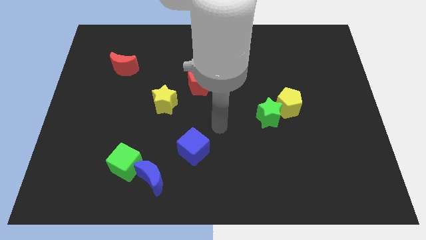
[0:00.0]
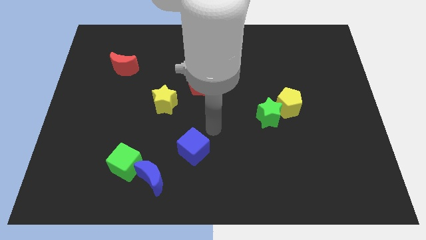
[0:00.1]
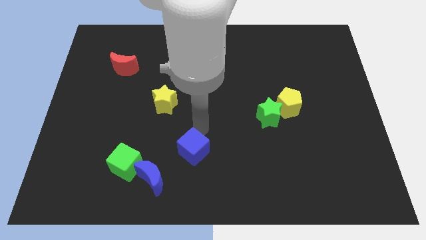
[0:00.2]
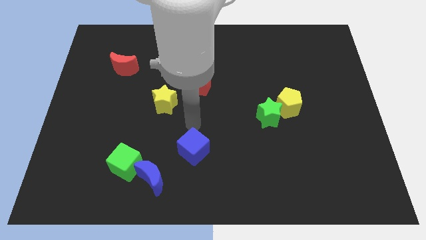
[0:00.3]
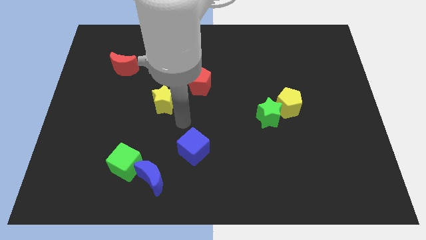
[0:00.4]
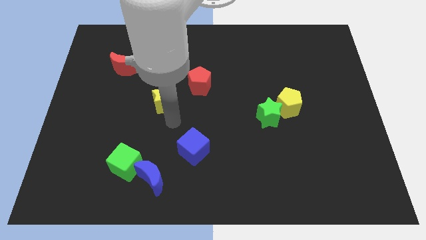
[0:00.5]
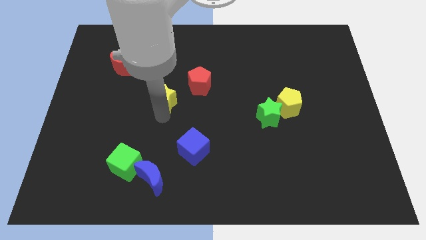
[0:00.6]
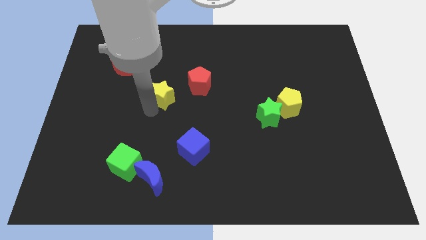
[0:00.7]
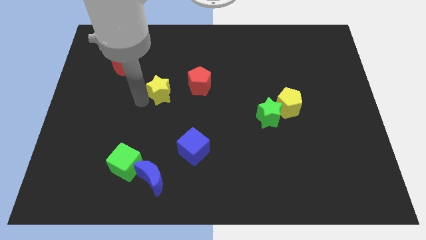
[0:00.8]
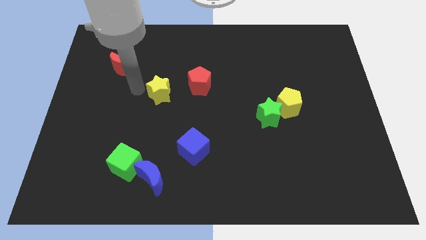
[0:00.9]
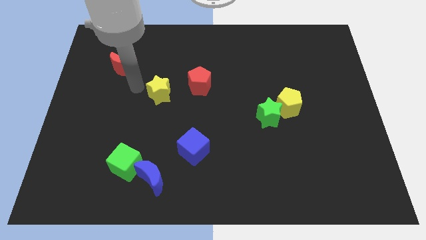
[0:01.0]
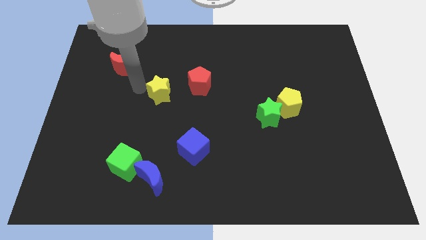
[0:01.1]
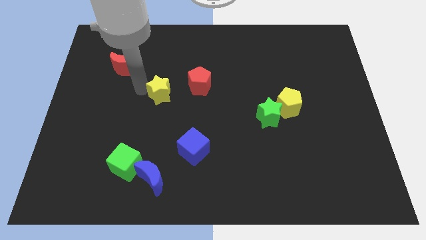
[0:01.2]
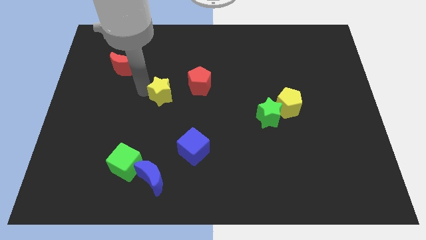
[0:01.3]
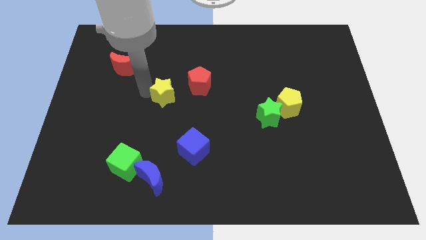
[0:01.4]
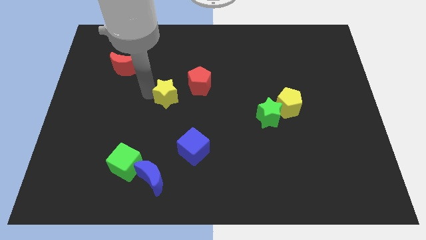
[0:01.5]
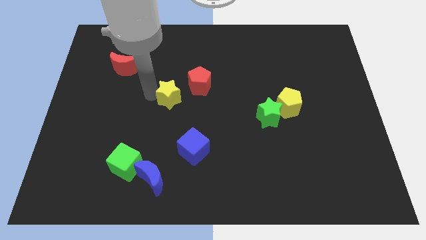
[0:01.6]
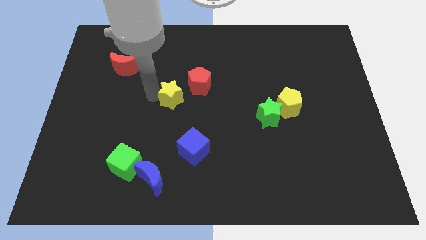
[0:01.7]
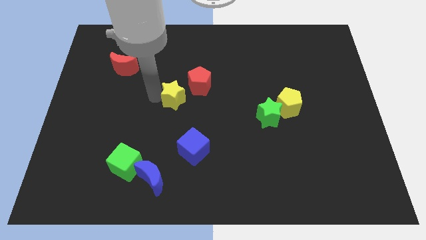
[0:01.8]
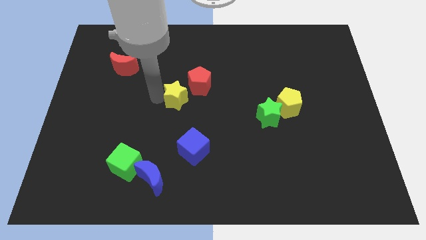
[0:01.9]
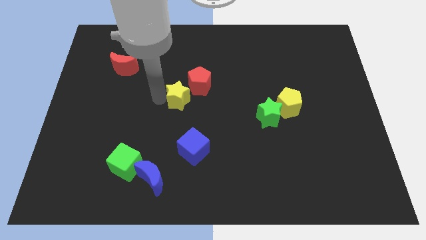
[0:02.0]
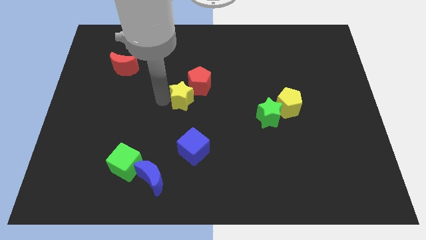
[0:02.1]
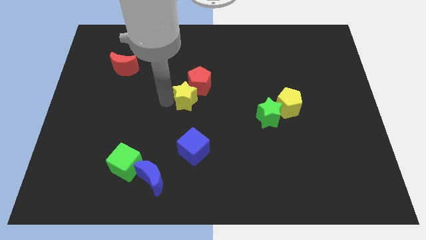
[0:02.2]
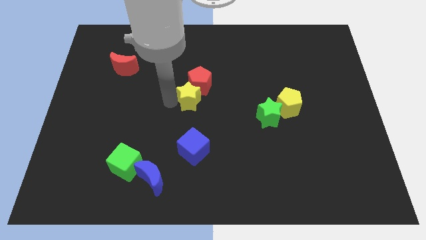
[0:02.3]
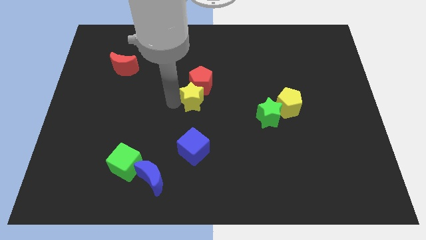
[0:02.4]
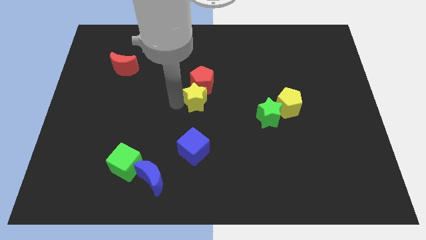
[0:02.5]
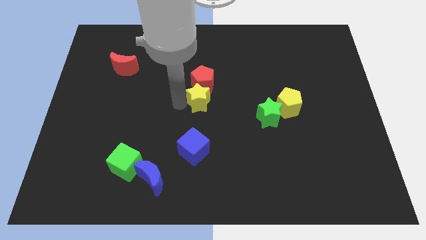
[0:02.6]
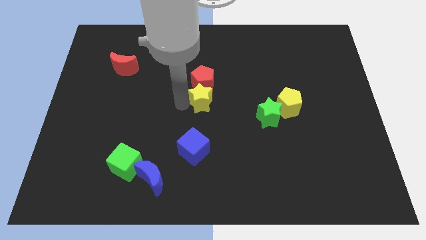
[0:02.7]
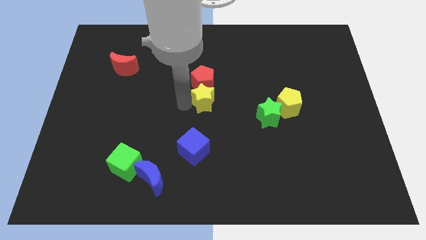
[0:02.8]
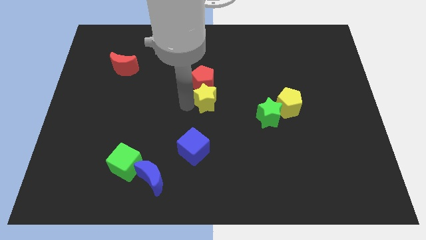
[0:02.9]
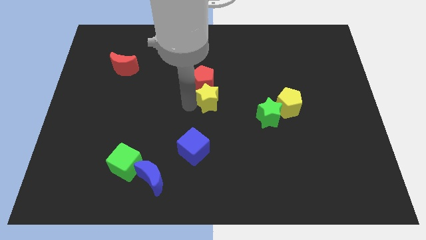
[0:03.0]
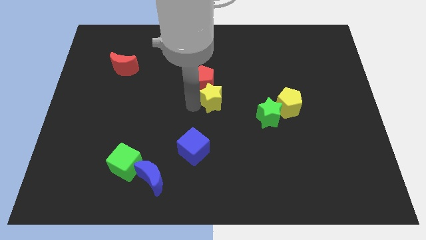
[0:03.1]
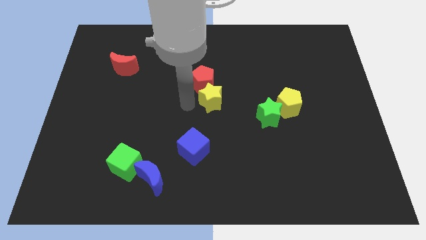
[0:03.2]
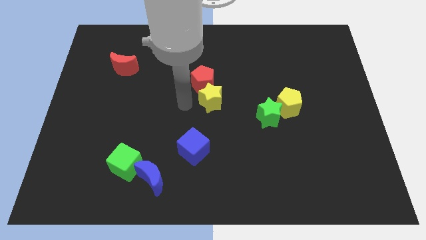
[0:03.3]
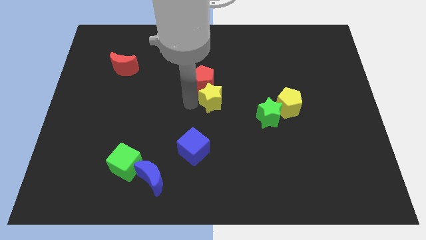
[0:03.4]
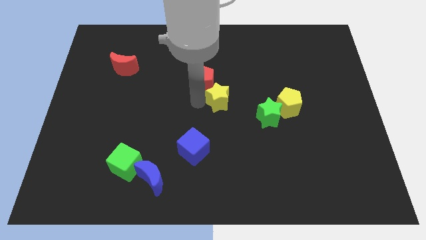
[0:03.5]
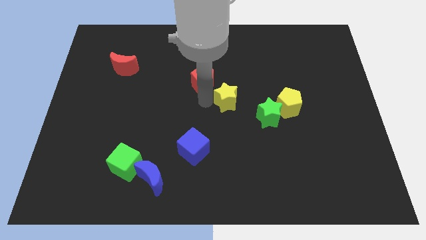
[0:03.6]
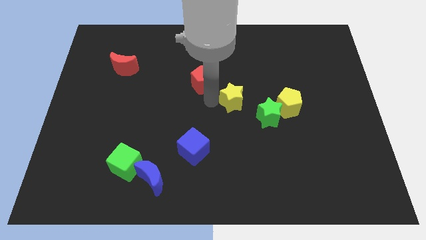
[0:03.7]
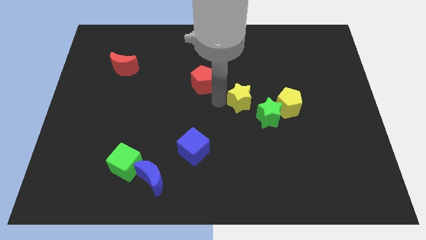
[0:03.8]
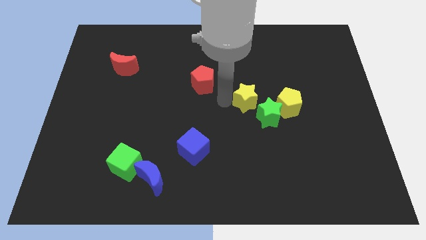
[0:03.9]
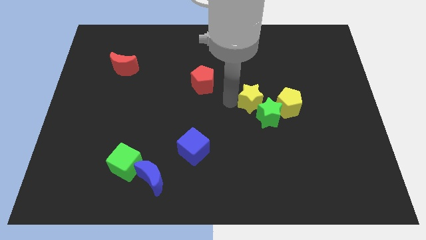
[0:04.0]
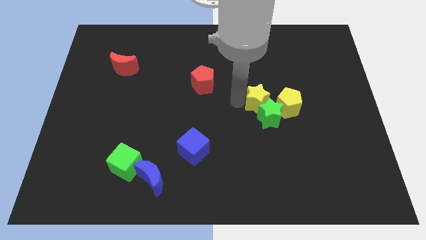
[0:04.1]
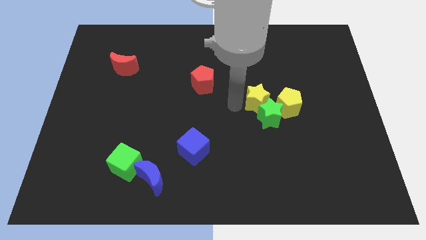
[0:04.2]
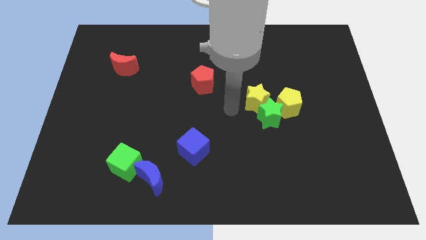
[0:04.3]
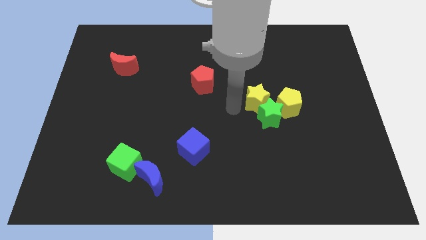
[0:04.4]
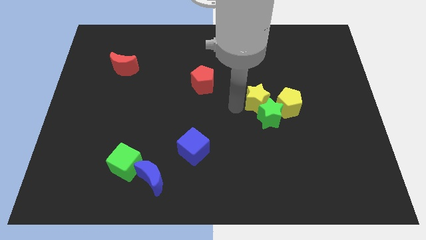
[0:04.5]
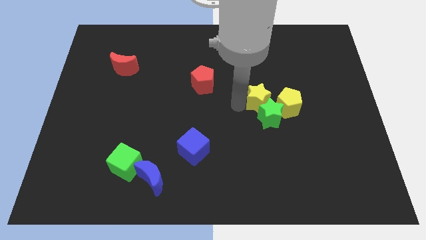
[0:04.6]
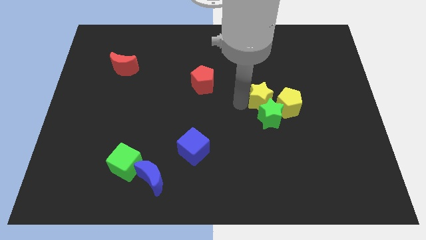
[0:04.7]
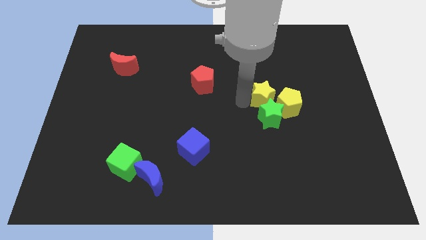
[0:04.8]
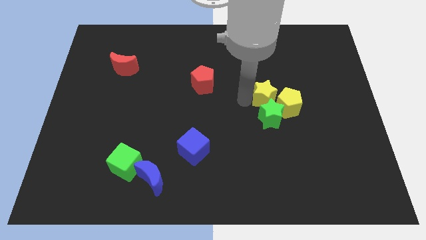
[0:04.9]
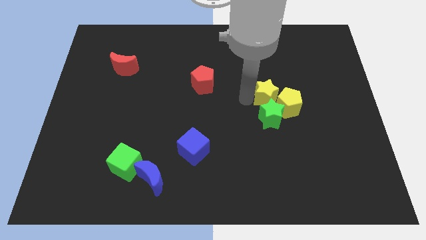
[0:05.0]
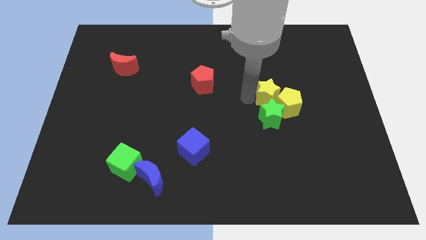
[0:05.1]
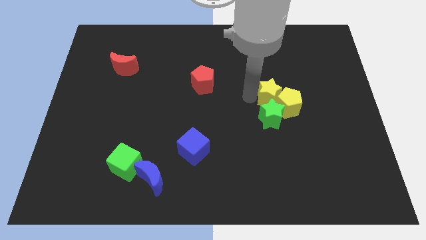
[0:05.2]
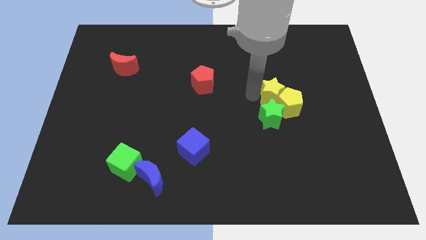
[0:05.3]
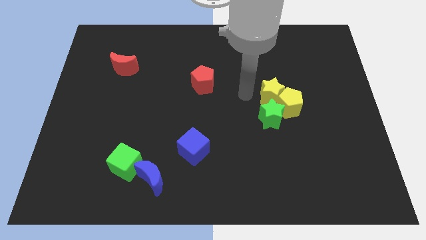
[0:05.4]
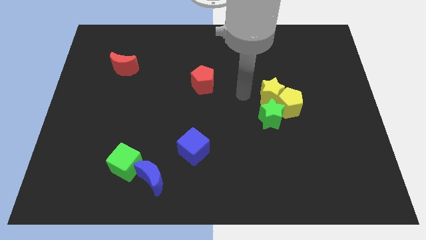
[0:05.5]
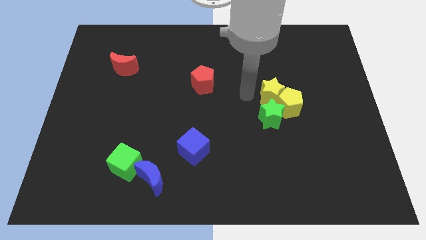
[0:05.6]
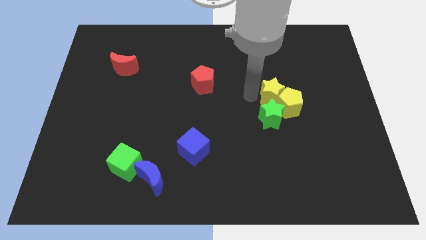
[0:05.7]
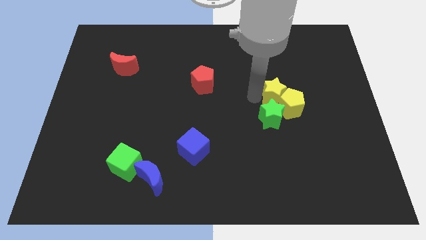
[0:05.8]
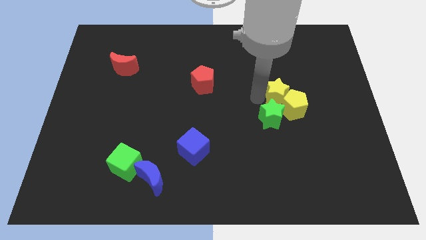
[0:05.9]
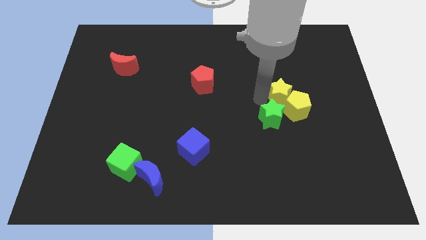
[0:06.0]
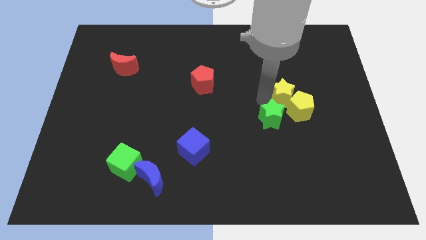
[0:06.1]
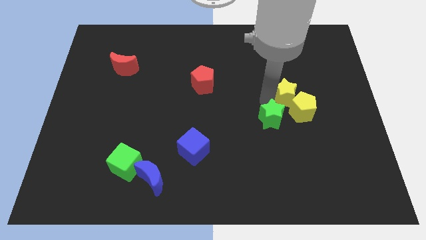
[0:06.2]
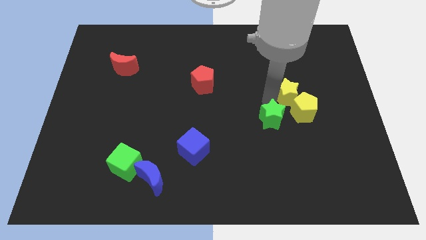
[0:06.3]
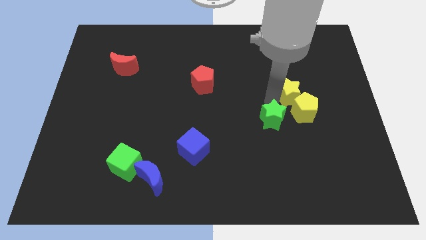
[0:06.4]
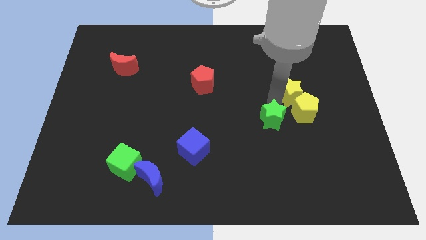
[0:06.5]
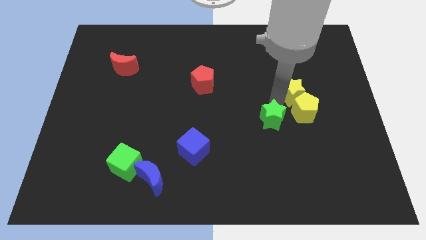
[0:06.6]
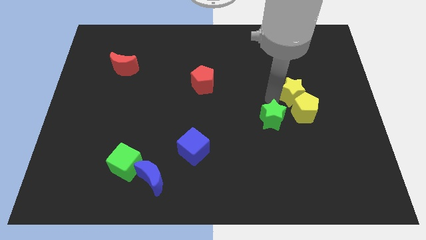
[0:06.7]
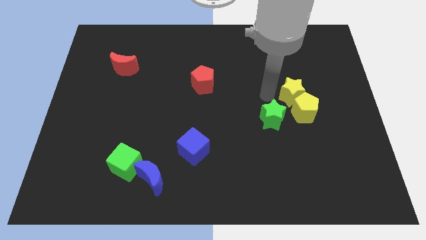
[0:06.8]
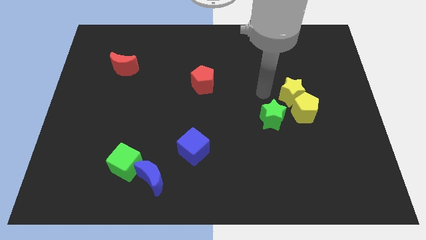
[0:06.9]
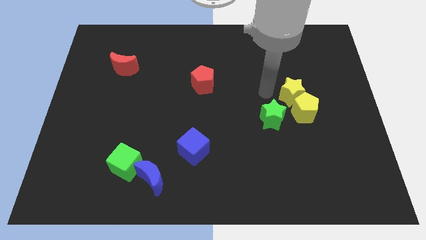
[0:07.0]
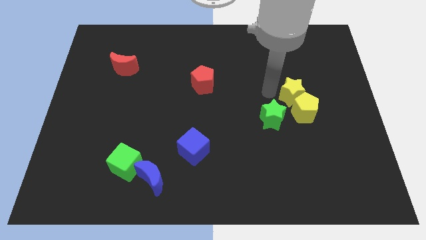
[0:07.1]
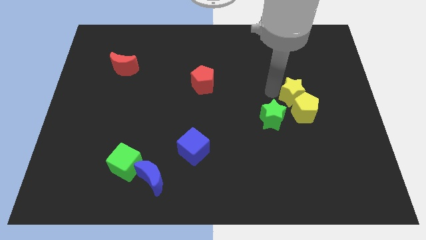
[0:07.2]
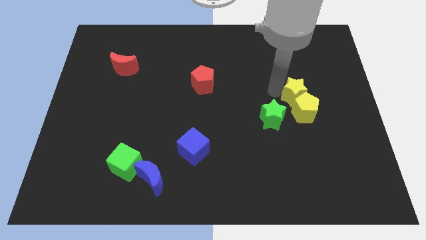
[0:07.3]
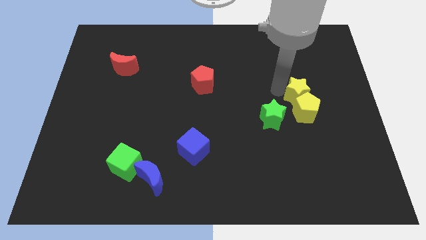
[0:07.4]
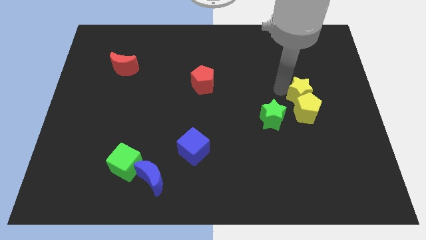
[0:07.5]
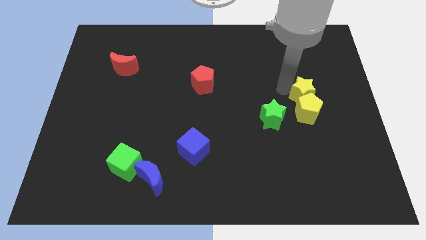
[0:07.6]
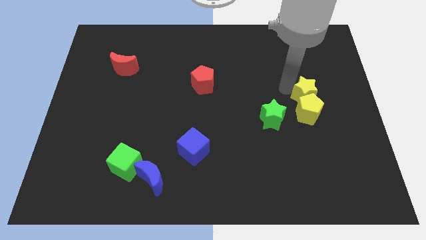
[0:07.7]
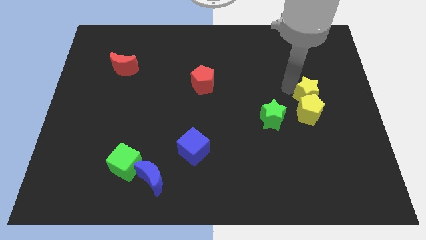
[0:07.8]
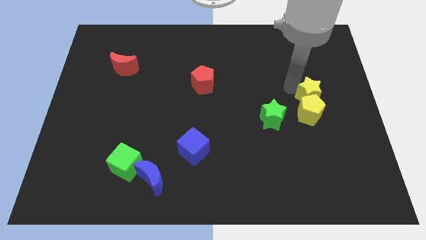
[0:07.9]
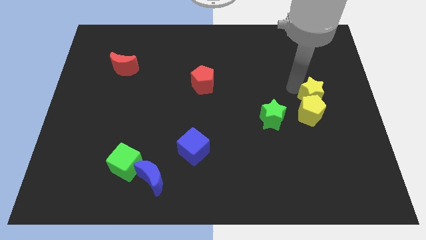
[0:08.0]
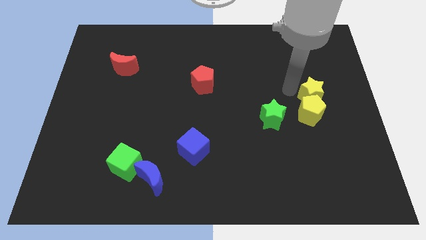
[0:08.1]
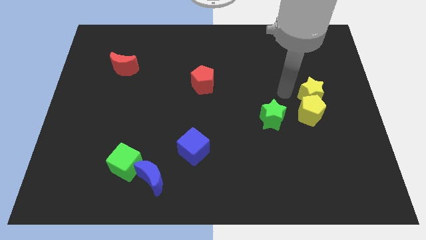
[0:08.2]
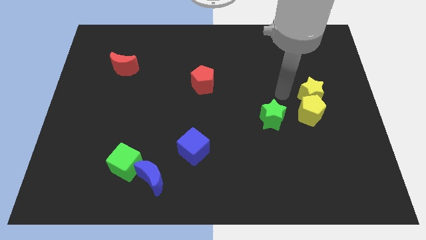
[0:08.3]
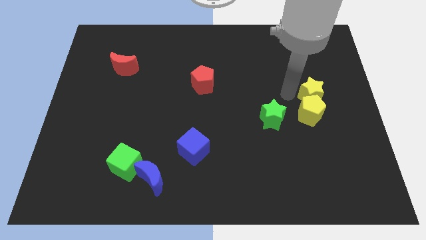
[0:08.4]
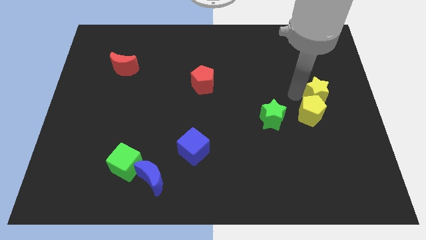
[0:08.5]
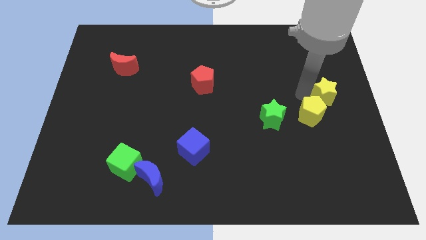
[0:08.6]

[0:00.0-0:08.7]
slide the yellow star to the center right
